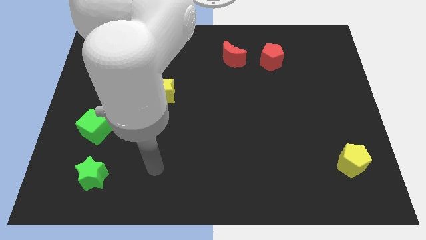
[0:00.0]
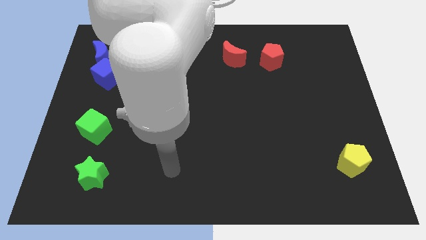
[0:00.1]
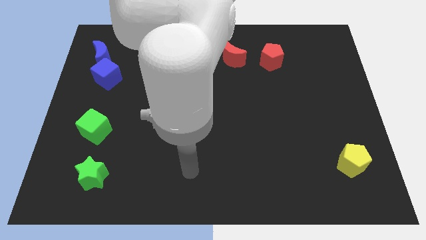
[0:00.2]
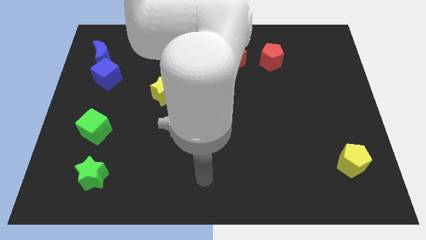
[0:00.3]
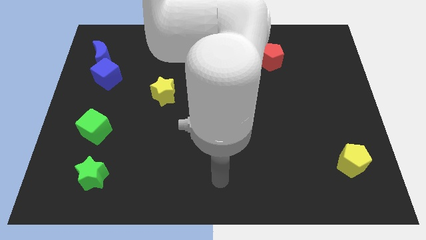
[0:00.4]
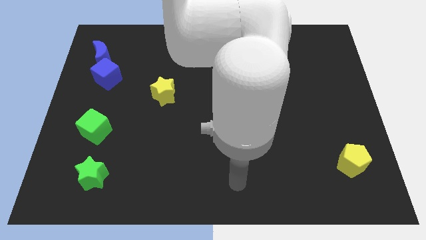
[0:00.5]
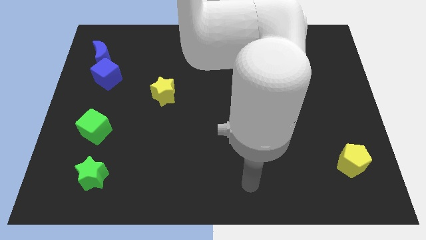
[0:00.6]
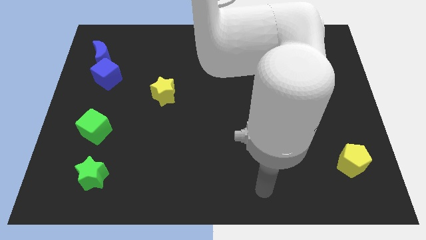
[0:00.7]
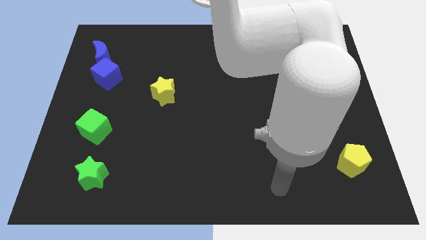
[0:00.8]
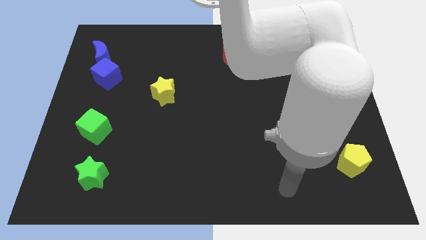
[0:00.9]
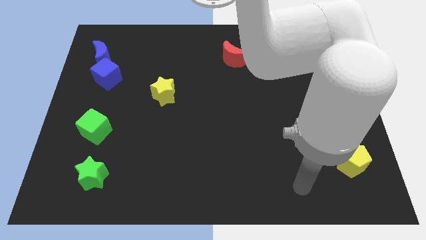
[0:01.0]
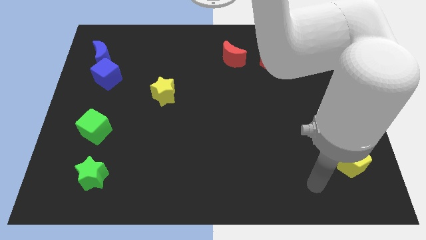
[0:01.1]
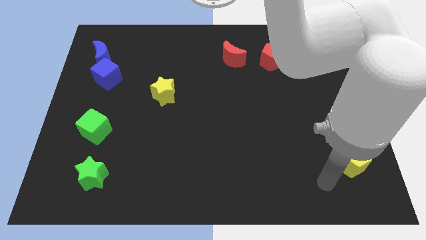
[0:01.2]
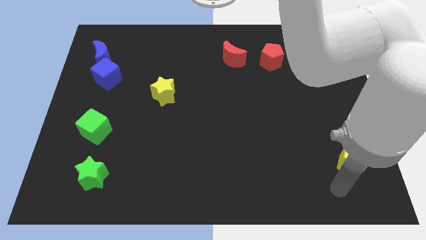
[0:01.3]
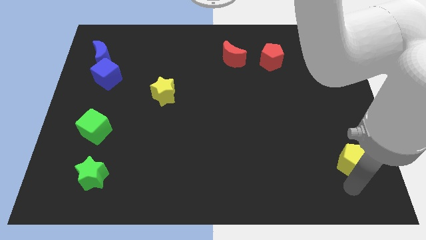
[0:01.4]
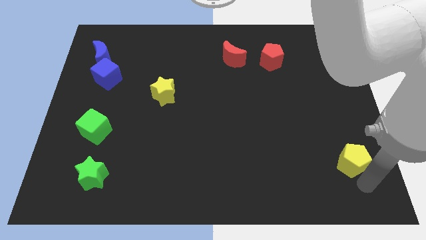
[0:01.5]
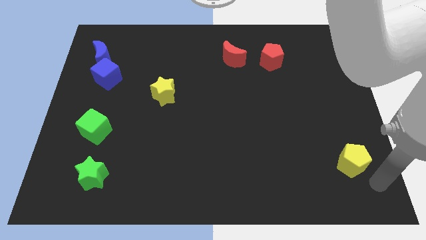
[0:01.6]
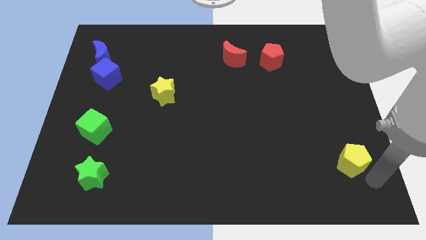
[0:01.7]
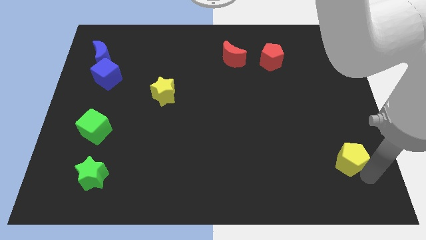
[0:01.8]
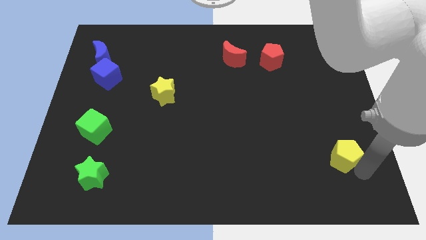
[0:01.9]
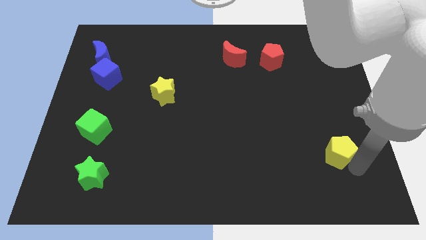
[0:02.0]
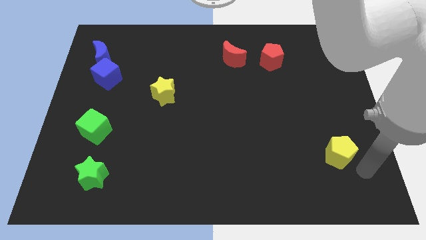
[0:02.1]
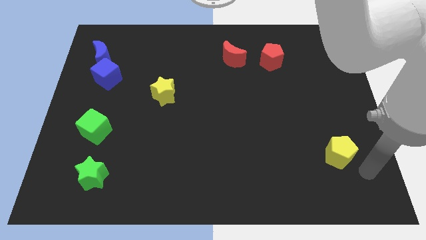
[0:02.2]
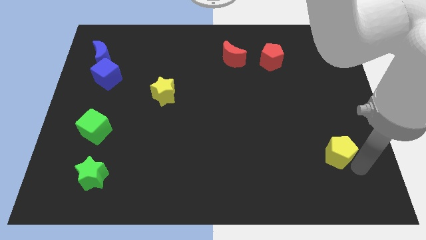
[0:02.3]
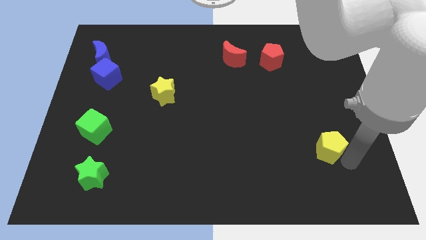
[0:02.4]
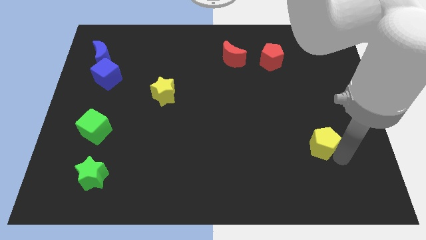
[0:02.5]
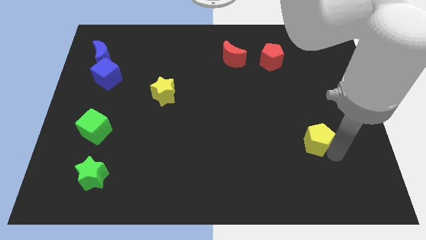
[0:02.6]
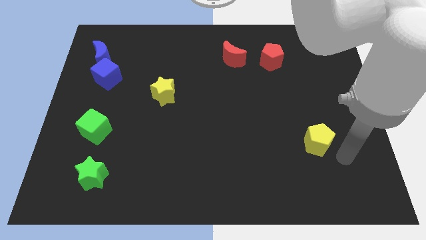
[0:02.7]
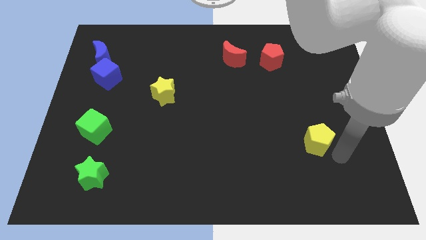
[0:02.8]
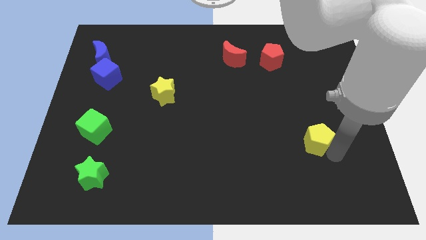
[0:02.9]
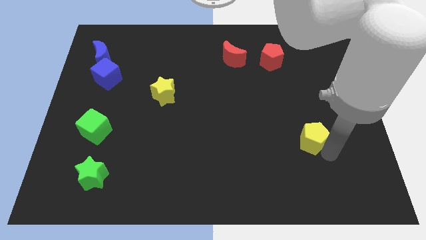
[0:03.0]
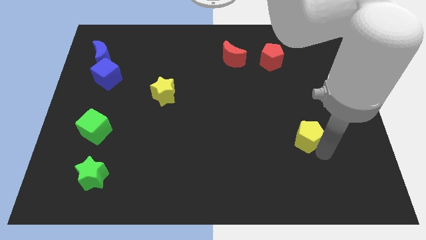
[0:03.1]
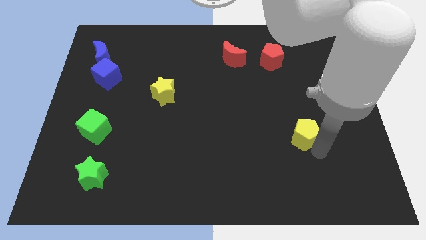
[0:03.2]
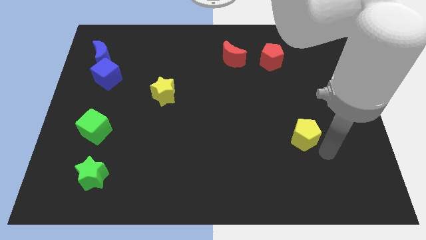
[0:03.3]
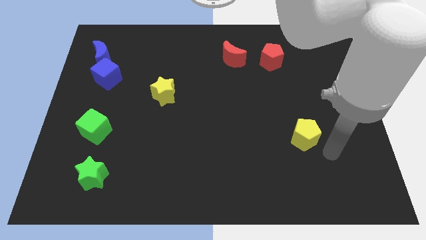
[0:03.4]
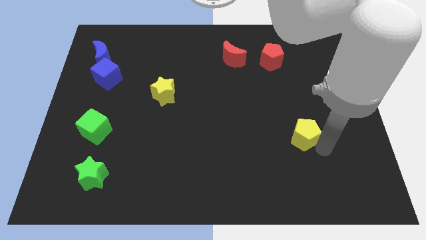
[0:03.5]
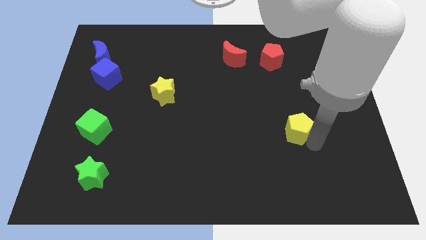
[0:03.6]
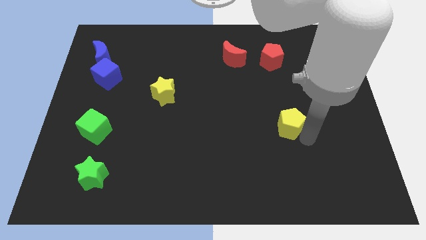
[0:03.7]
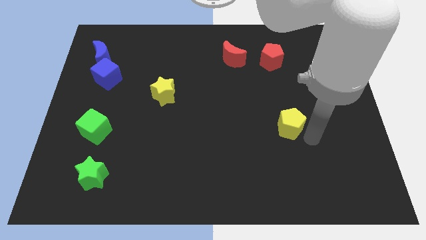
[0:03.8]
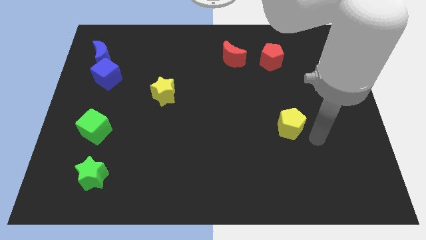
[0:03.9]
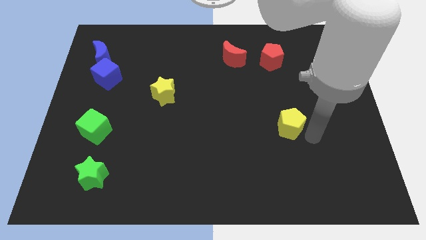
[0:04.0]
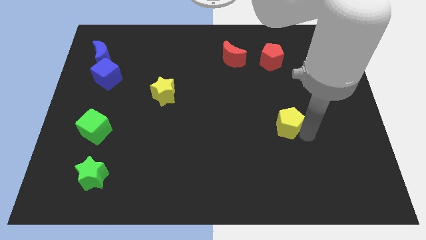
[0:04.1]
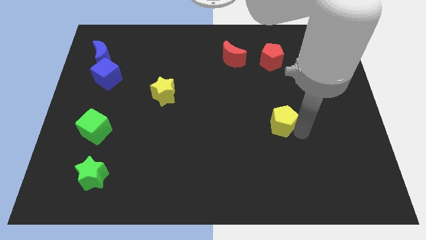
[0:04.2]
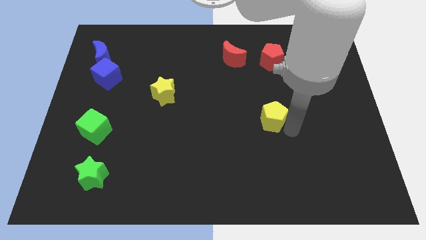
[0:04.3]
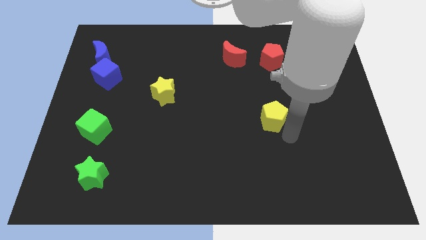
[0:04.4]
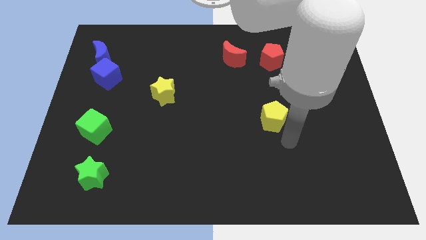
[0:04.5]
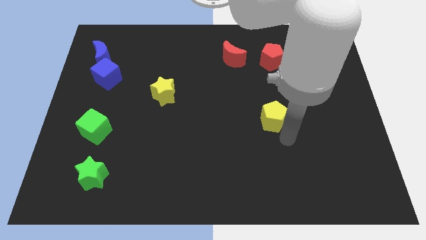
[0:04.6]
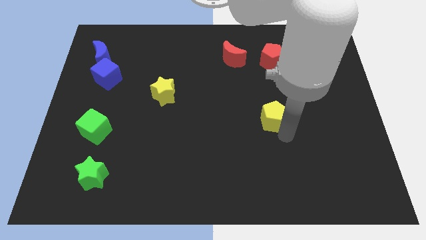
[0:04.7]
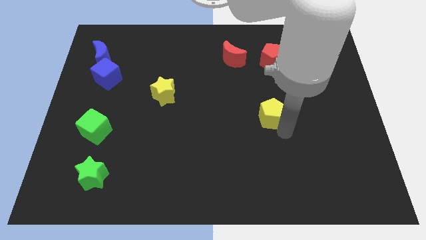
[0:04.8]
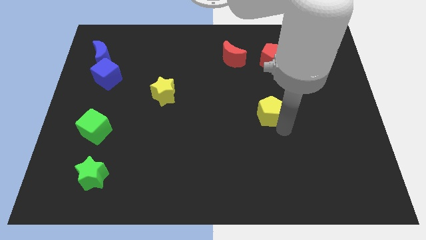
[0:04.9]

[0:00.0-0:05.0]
slide the yellow pentagon up and to the left diagonally

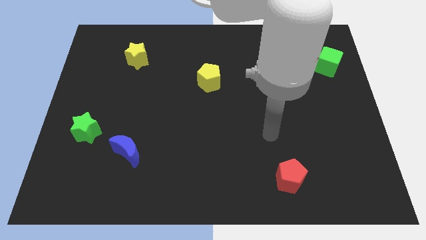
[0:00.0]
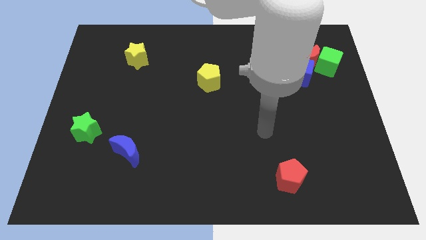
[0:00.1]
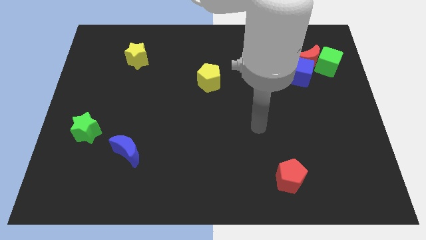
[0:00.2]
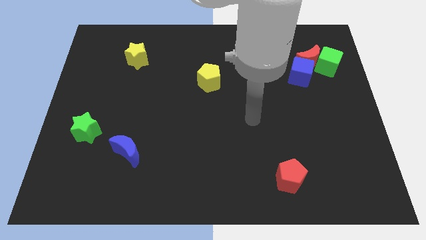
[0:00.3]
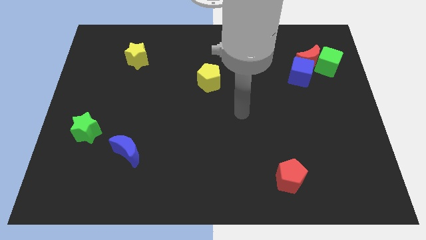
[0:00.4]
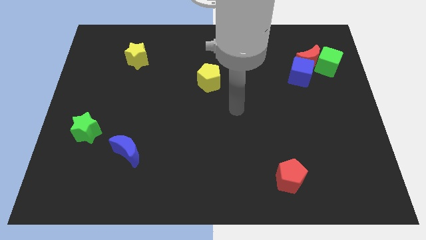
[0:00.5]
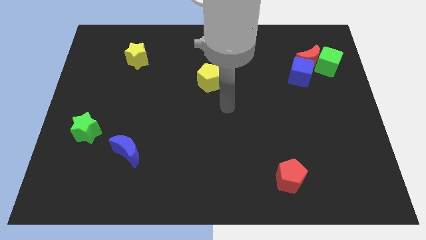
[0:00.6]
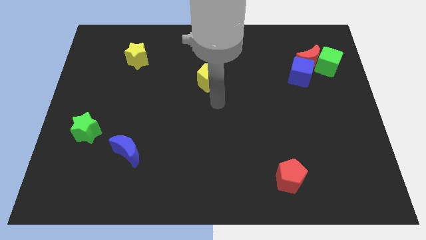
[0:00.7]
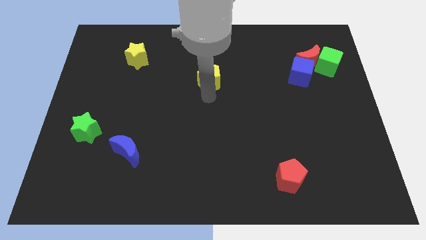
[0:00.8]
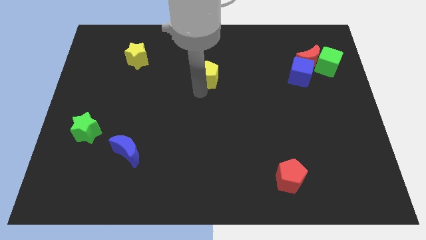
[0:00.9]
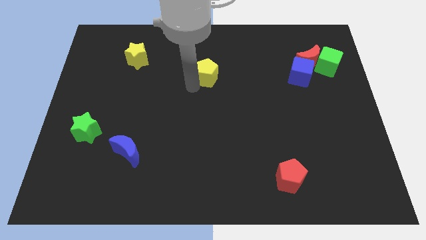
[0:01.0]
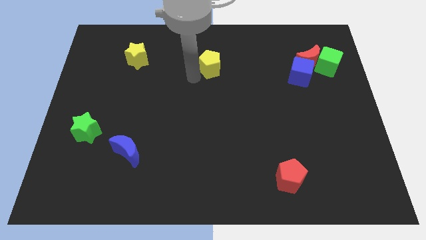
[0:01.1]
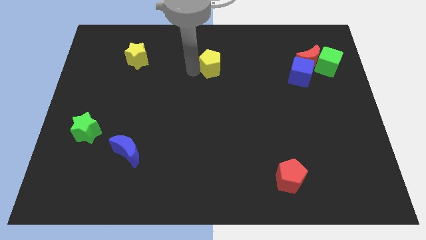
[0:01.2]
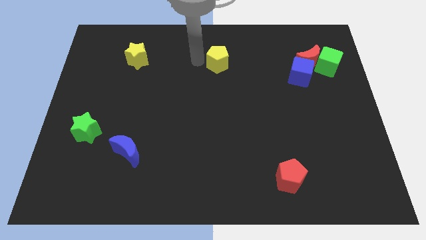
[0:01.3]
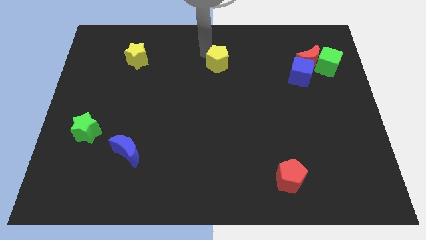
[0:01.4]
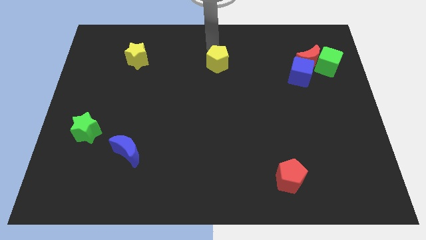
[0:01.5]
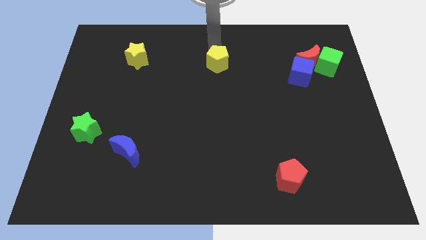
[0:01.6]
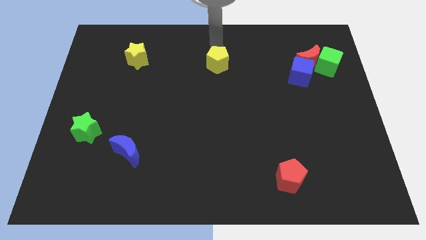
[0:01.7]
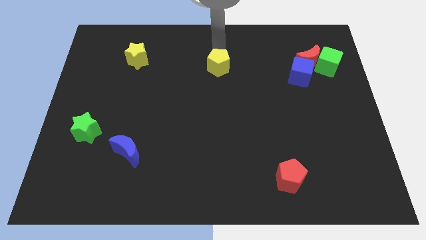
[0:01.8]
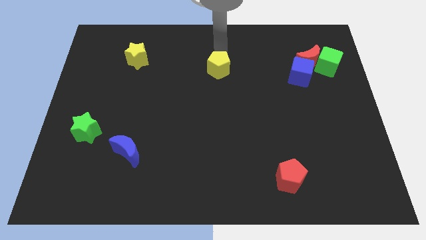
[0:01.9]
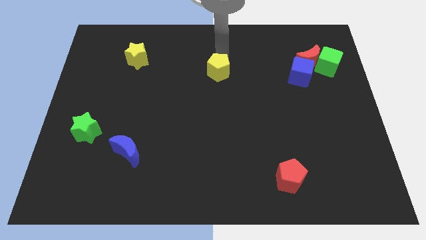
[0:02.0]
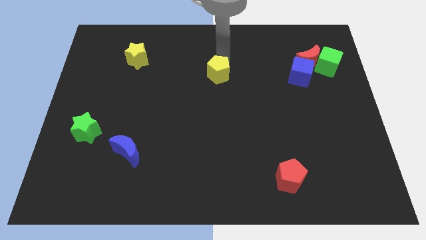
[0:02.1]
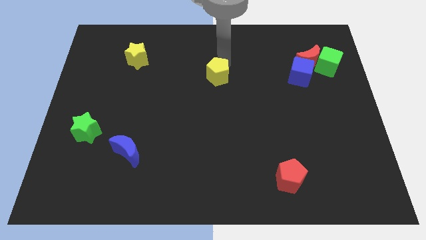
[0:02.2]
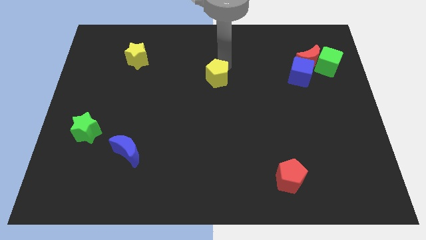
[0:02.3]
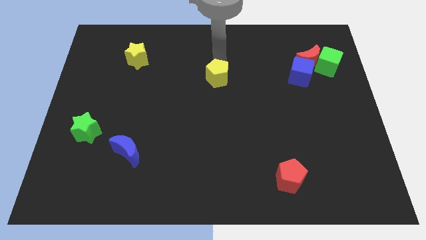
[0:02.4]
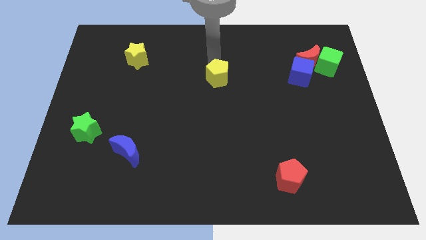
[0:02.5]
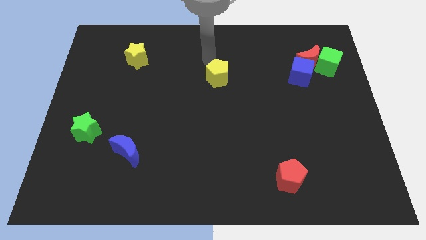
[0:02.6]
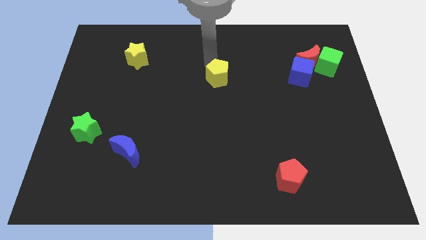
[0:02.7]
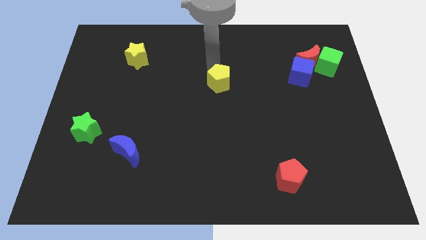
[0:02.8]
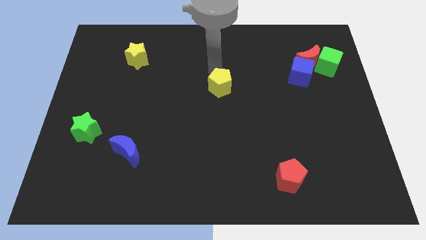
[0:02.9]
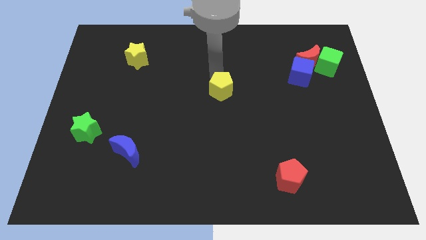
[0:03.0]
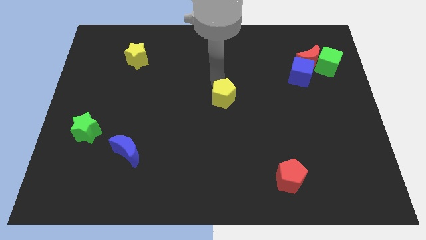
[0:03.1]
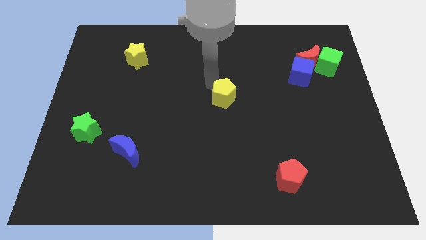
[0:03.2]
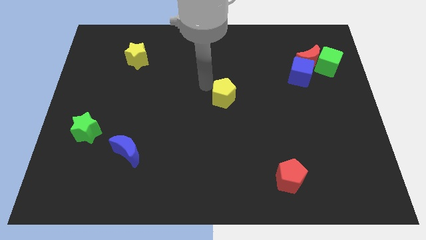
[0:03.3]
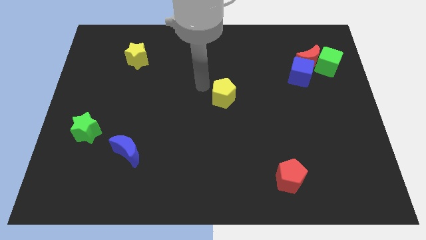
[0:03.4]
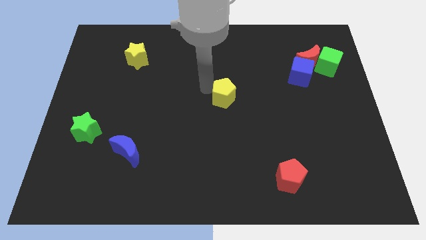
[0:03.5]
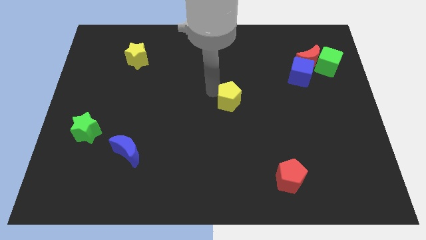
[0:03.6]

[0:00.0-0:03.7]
slightly push the yellow pentagon down and right diagonally
